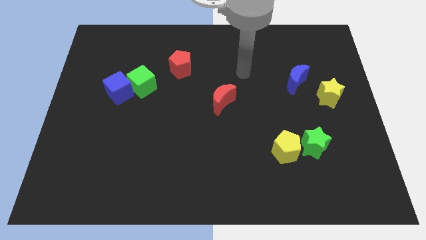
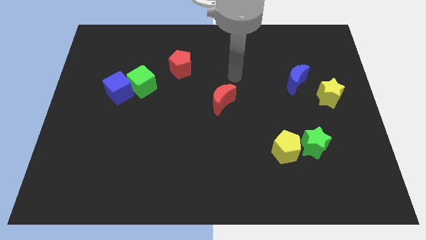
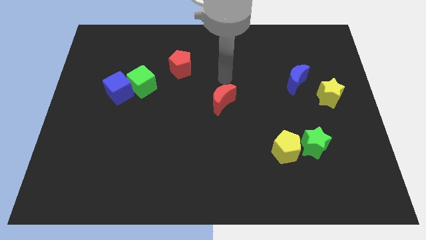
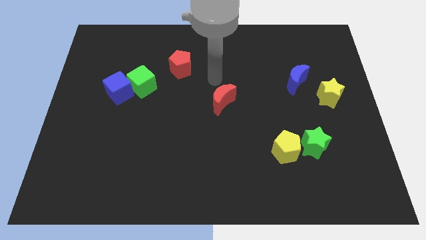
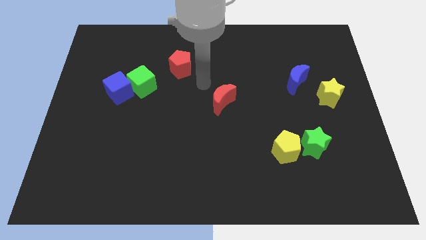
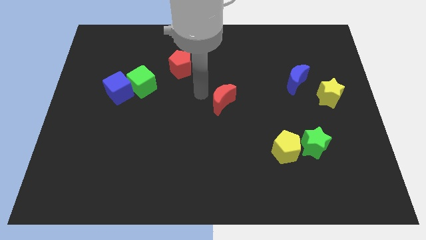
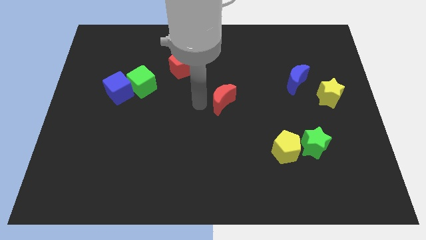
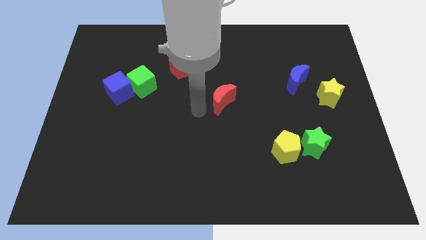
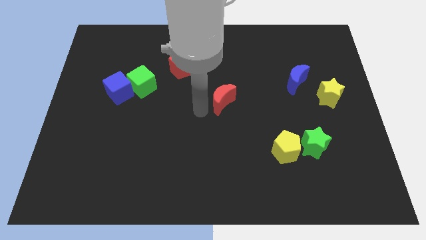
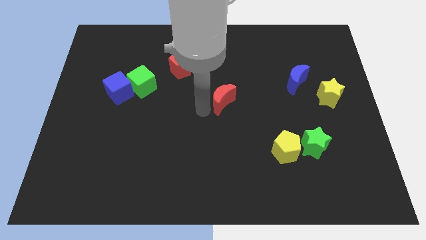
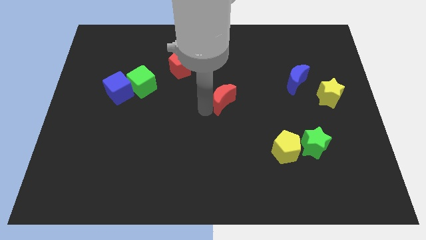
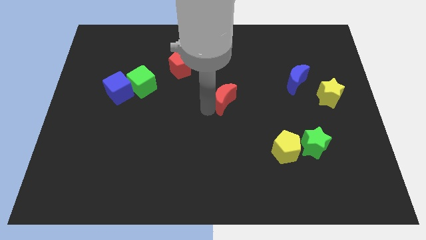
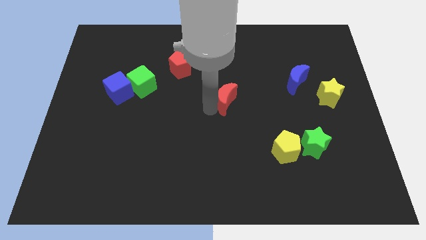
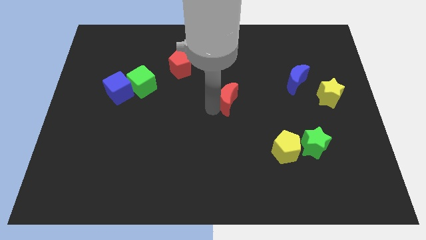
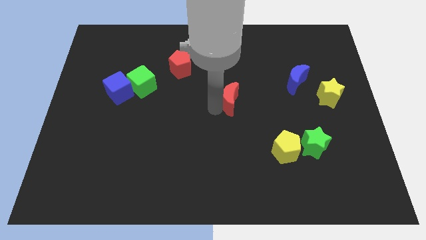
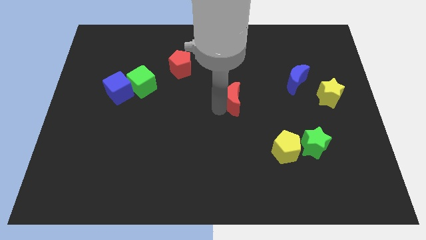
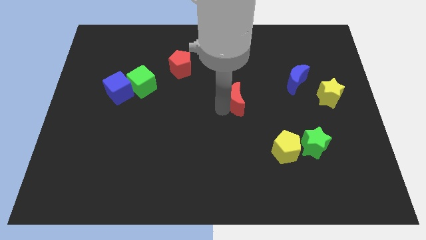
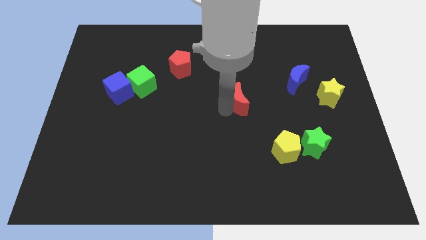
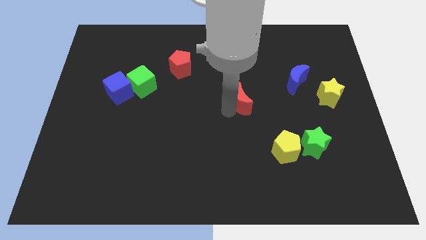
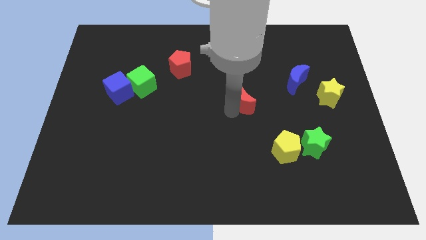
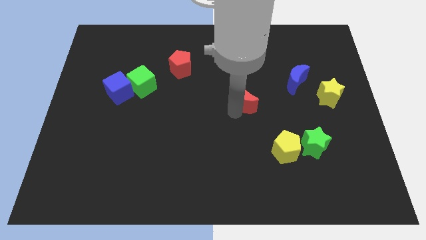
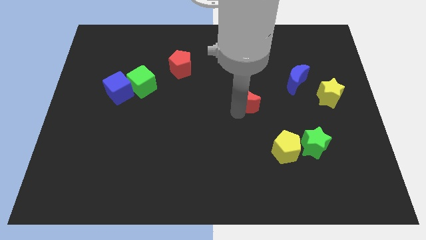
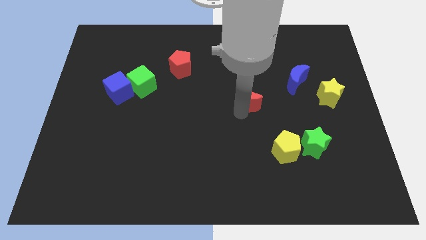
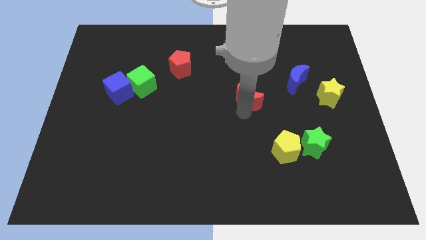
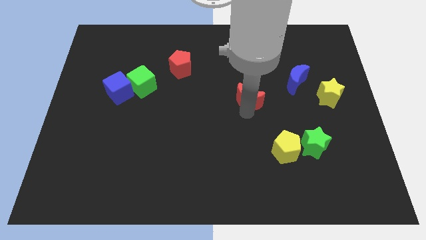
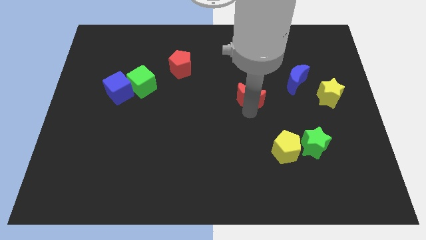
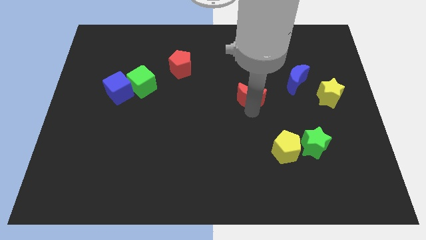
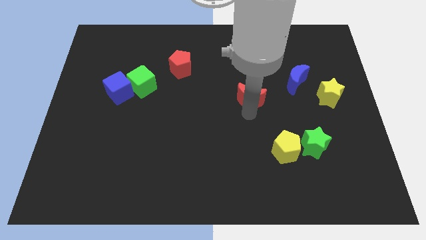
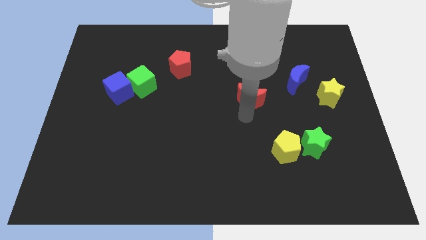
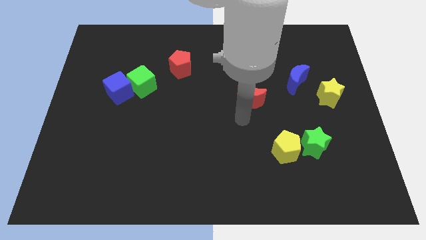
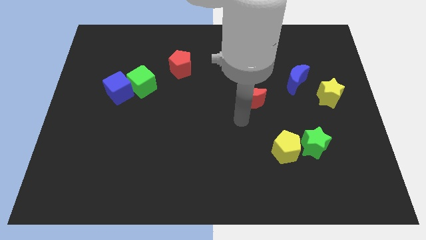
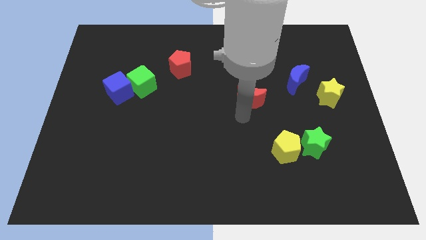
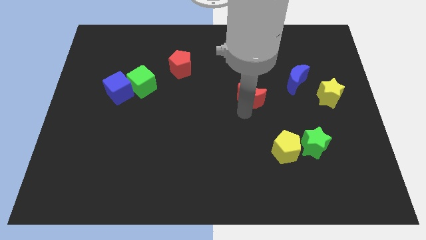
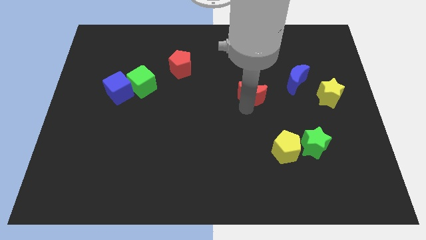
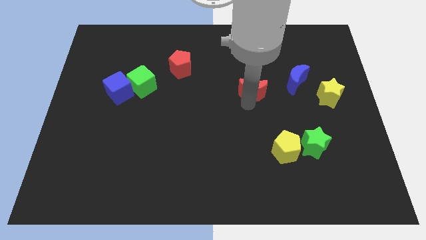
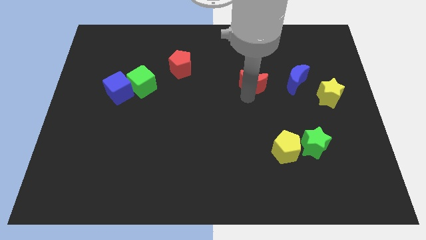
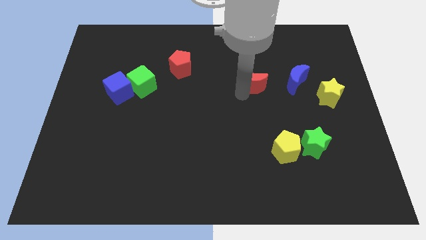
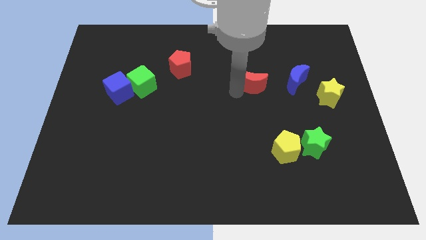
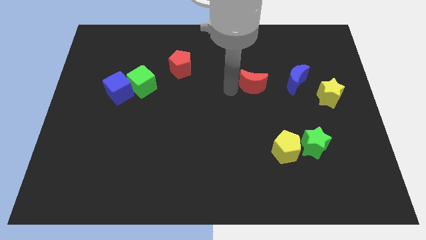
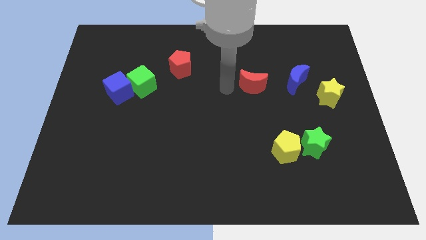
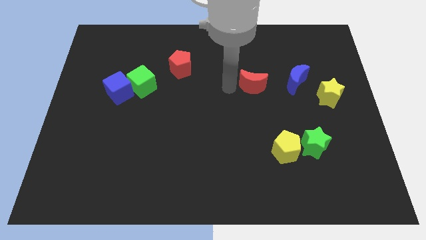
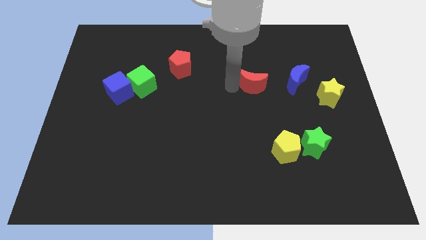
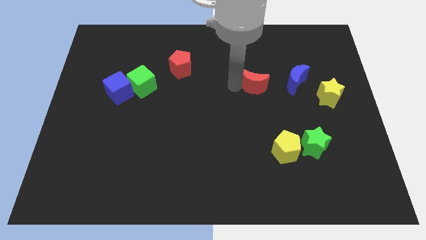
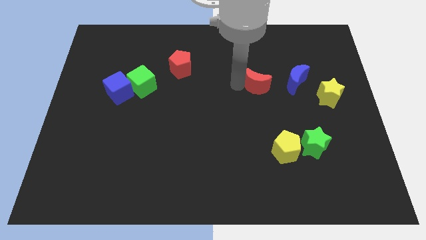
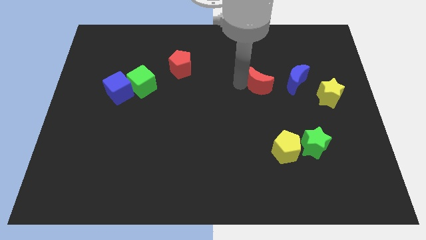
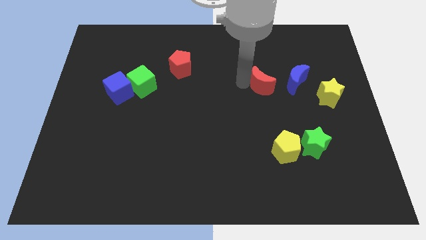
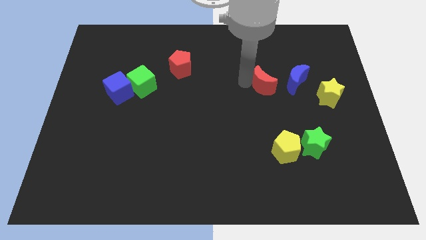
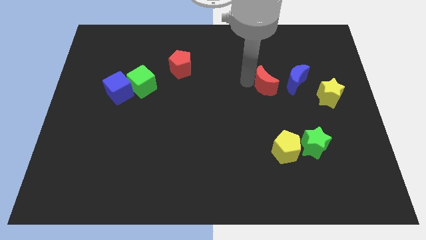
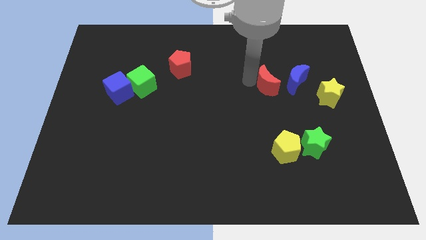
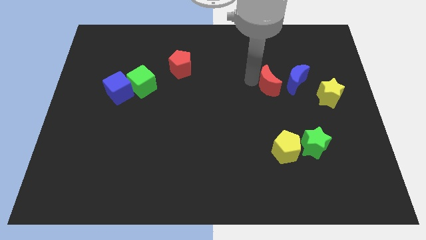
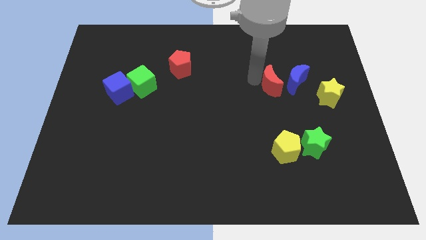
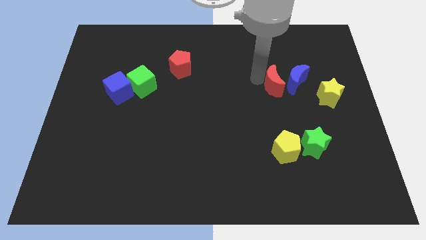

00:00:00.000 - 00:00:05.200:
push the red moon to the blue moon

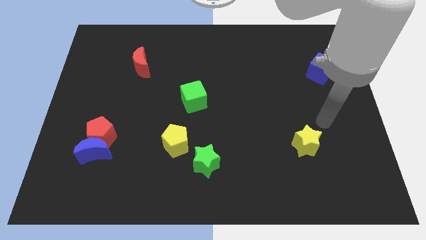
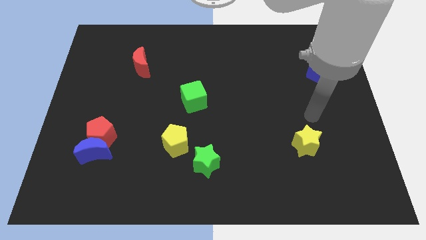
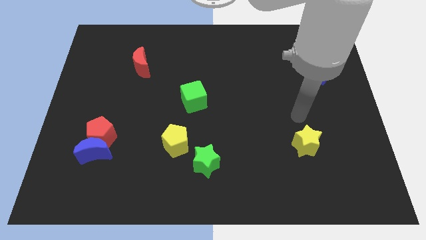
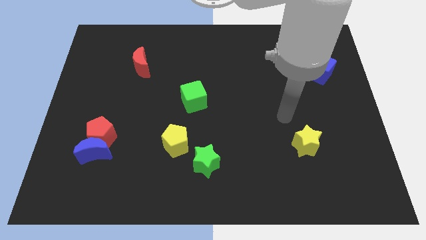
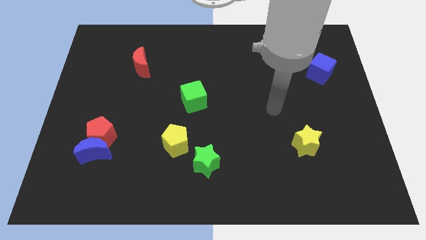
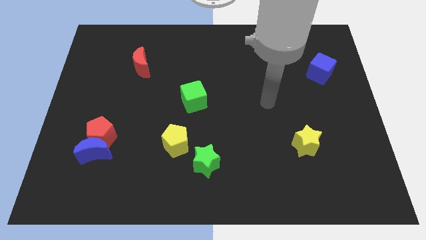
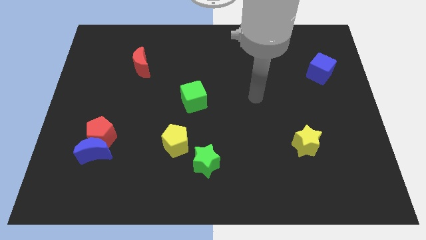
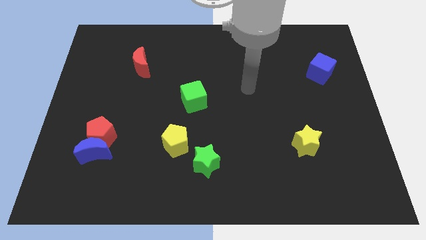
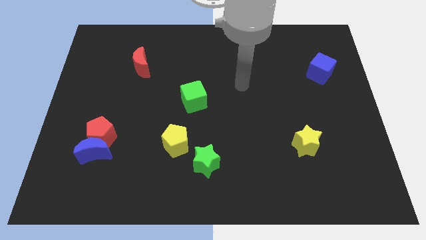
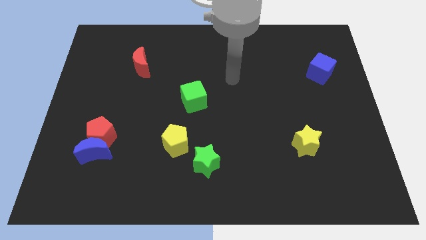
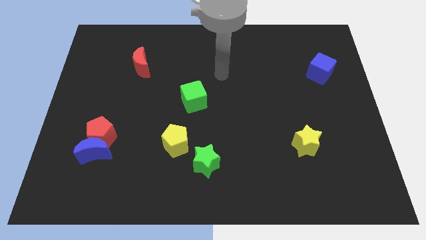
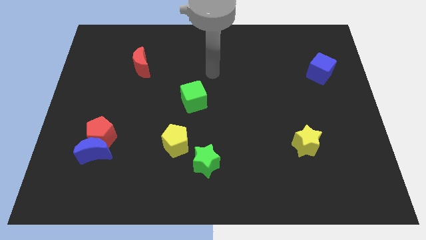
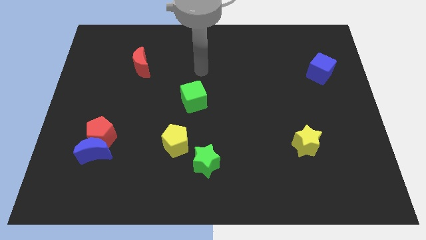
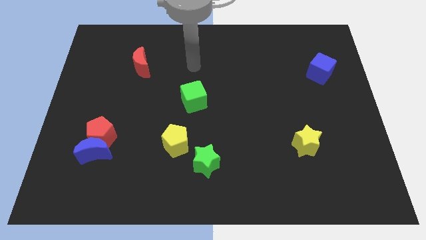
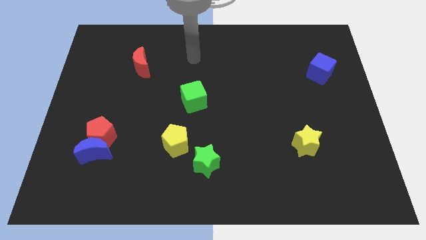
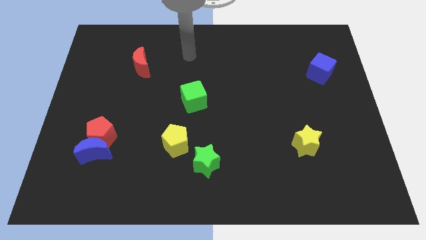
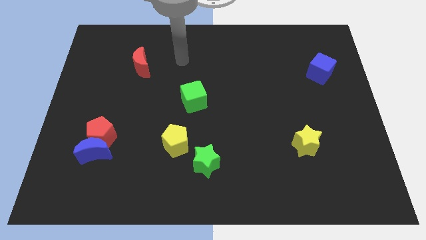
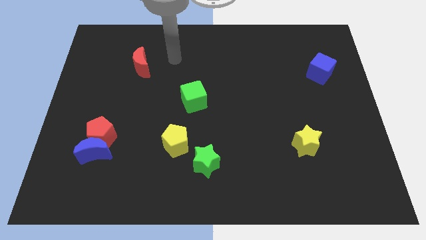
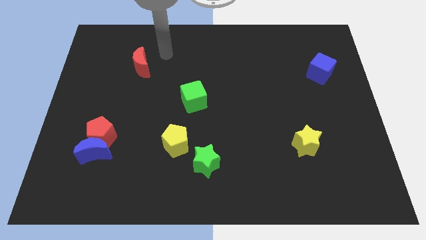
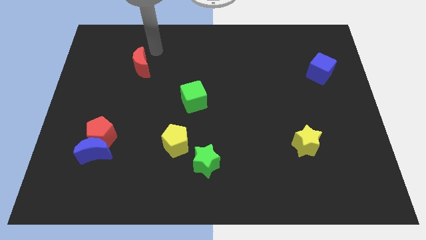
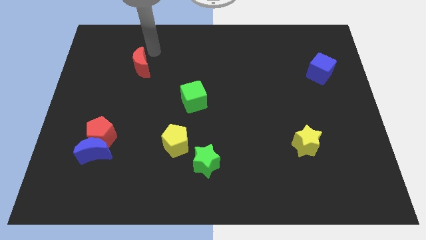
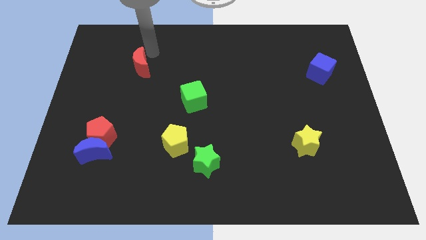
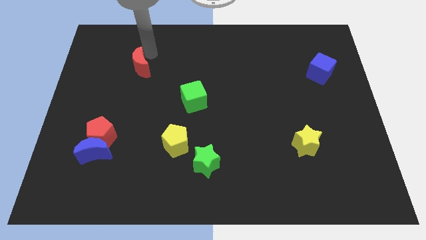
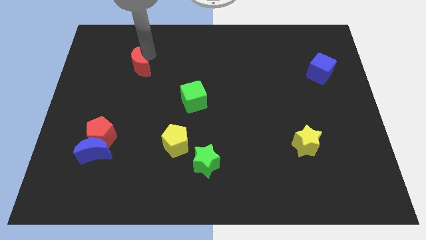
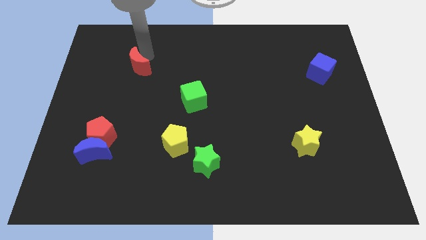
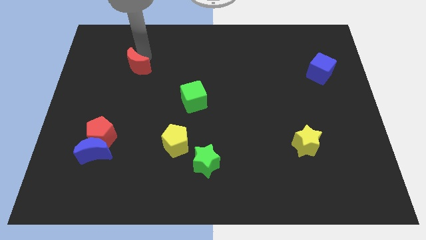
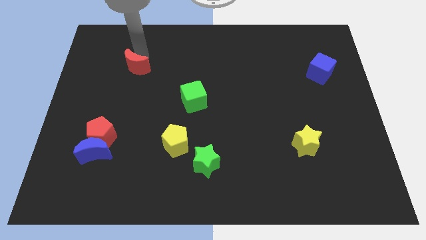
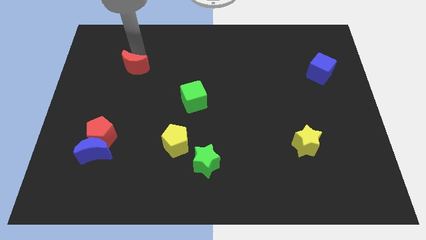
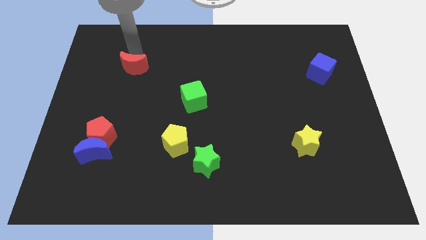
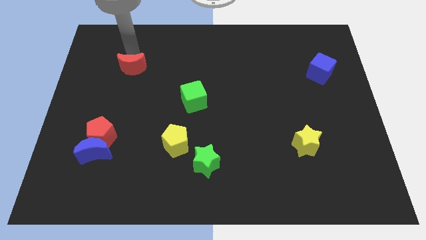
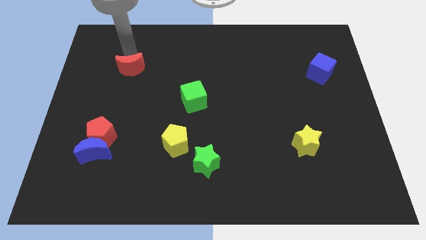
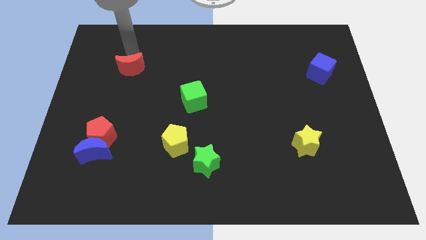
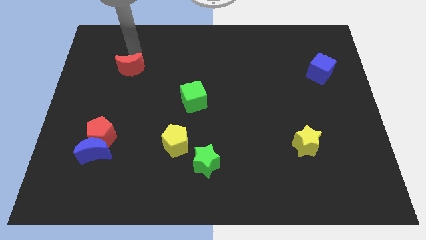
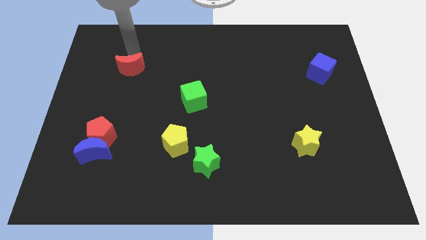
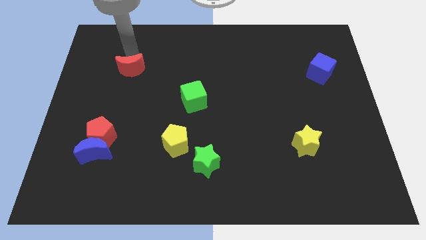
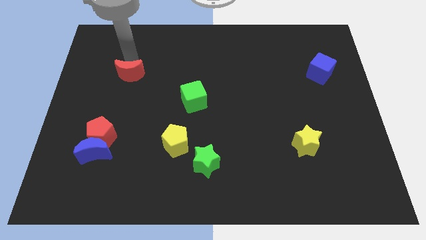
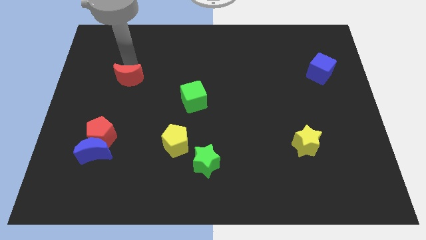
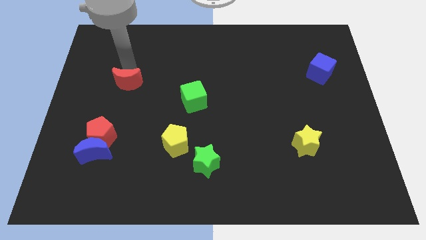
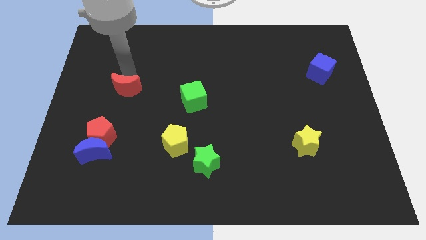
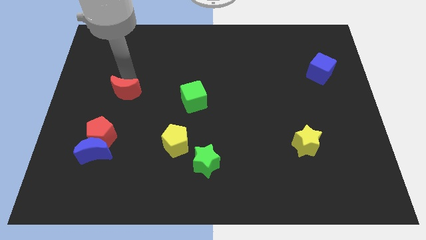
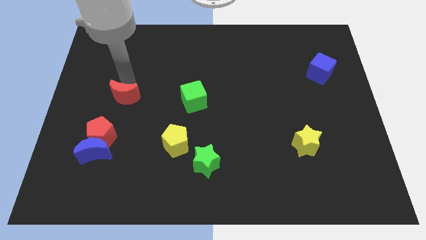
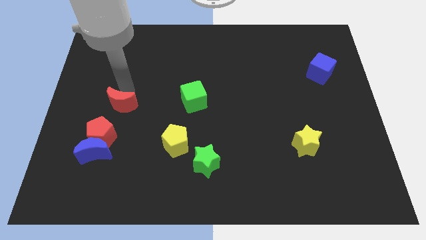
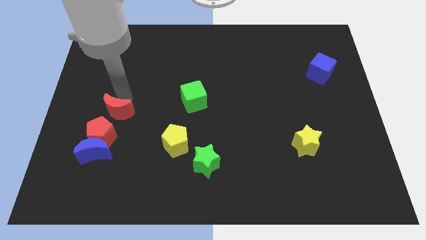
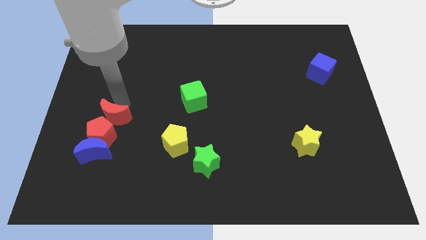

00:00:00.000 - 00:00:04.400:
push the red moon to the red pentagon
